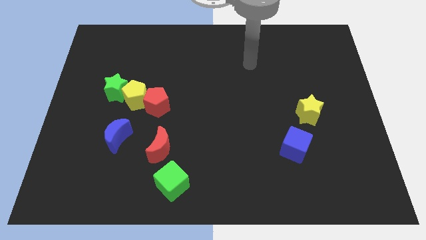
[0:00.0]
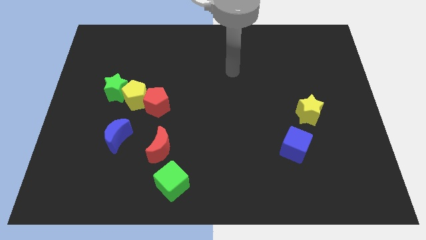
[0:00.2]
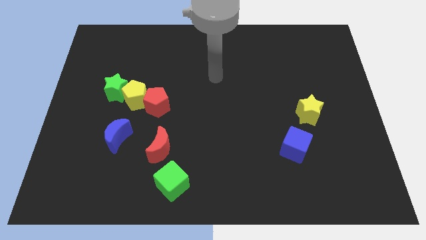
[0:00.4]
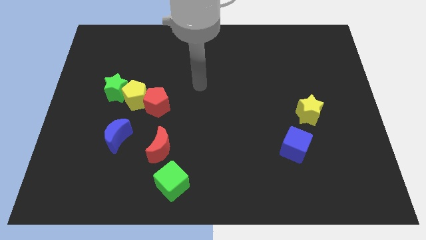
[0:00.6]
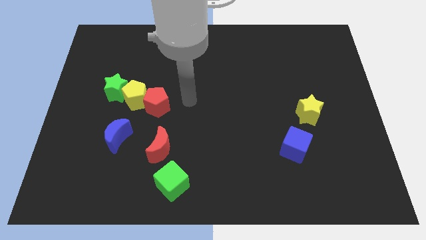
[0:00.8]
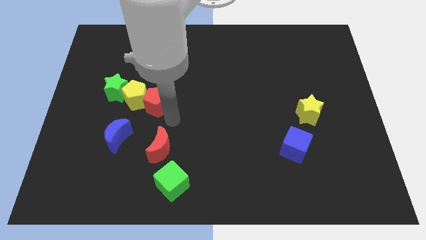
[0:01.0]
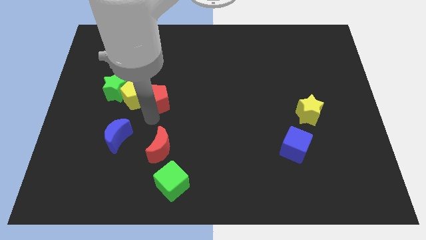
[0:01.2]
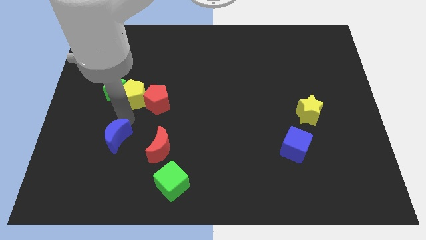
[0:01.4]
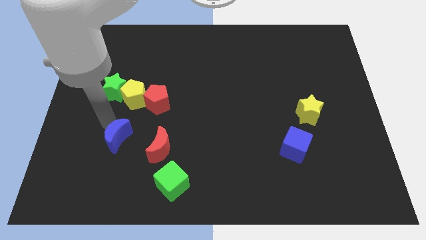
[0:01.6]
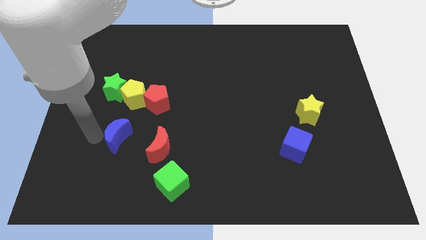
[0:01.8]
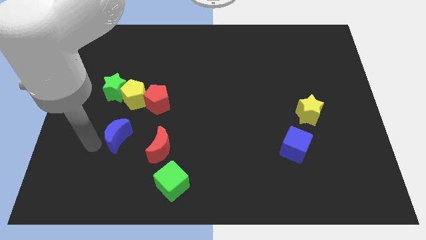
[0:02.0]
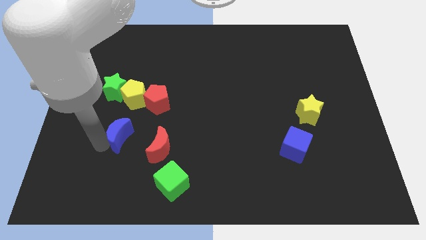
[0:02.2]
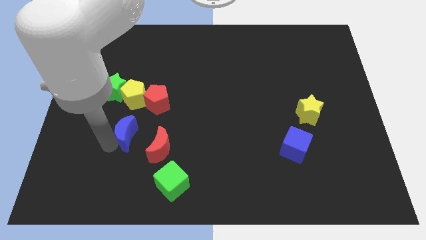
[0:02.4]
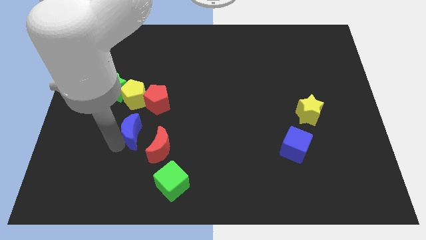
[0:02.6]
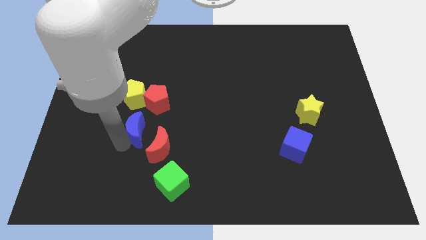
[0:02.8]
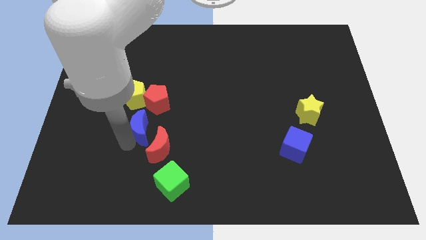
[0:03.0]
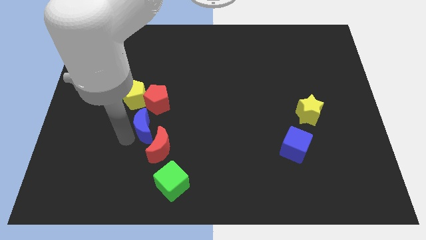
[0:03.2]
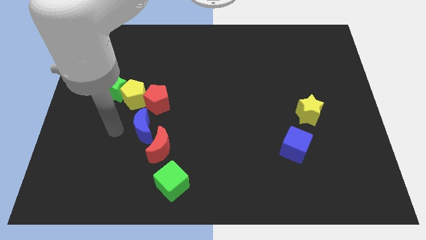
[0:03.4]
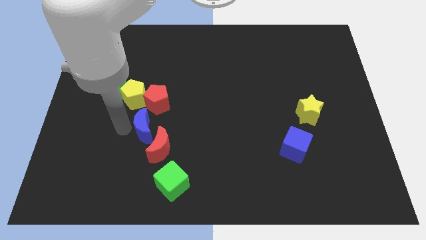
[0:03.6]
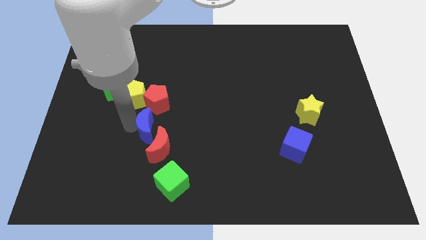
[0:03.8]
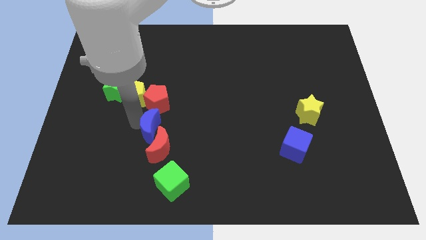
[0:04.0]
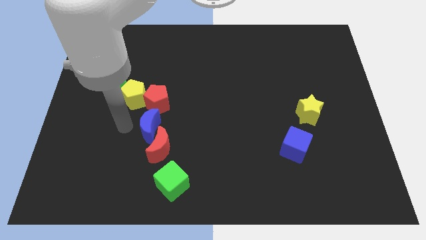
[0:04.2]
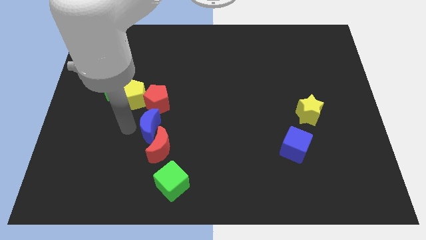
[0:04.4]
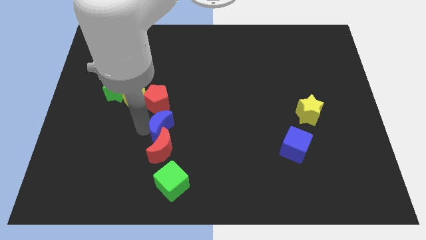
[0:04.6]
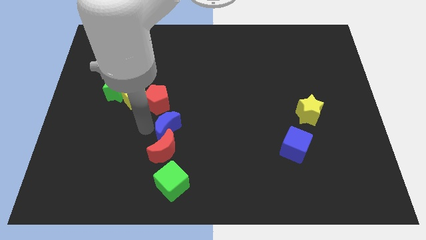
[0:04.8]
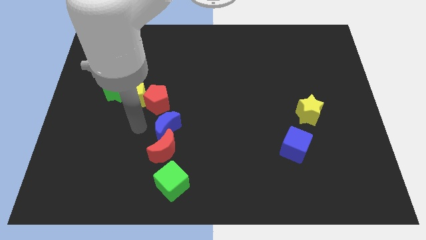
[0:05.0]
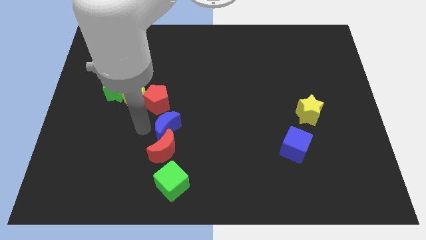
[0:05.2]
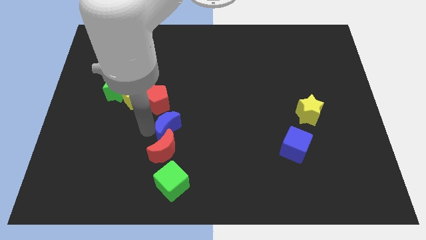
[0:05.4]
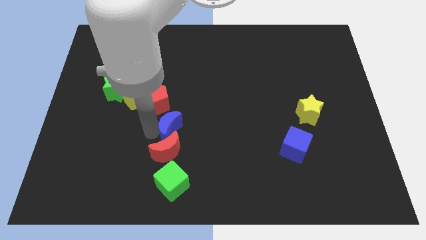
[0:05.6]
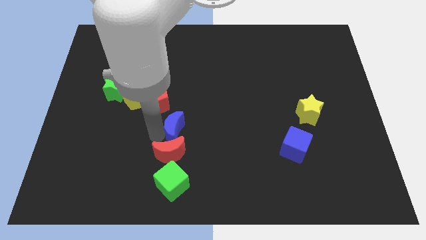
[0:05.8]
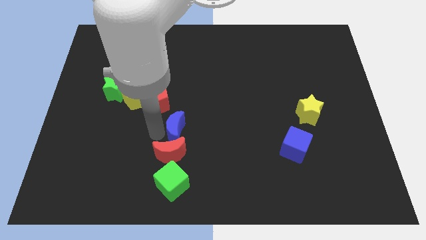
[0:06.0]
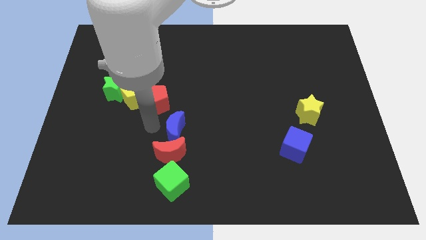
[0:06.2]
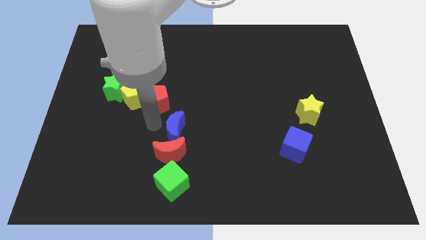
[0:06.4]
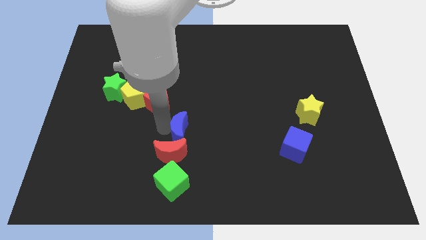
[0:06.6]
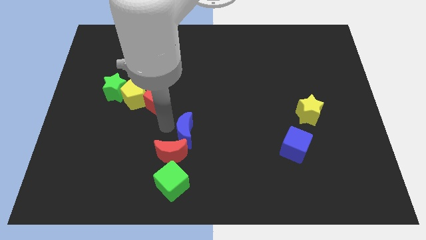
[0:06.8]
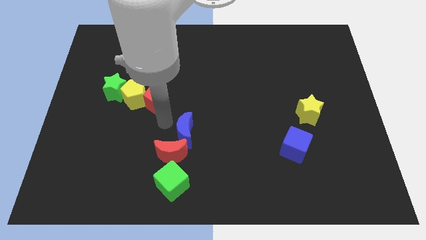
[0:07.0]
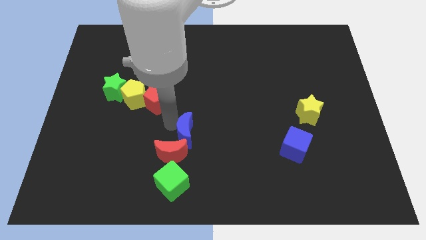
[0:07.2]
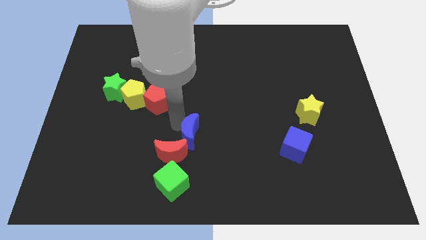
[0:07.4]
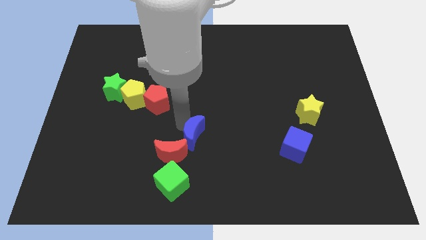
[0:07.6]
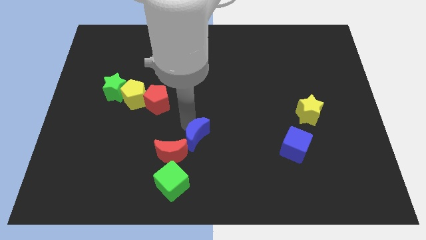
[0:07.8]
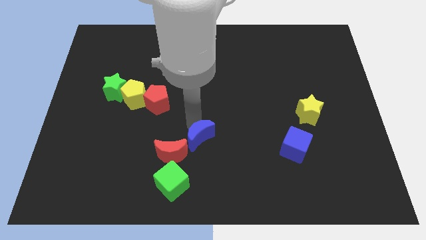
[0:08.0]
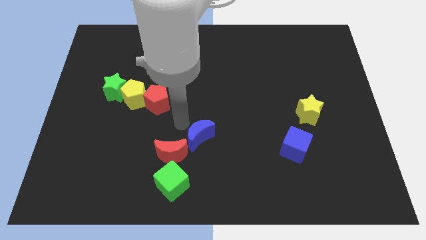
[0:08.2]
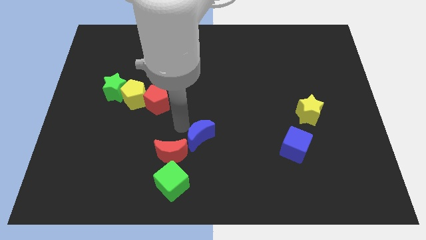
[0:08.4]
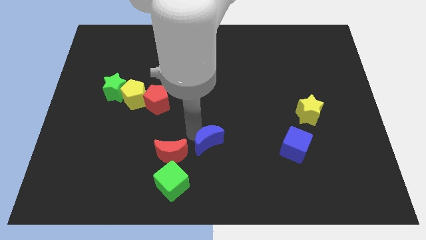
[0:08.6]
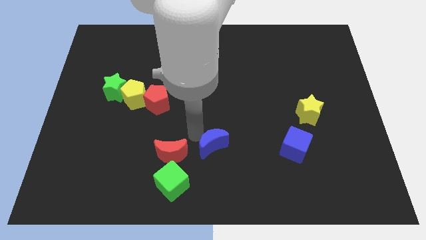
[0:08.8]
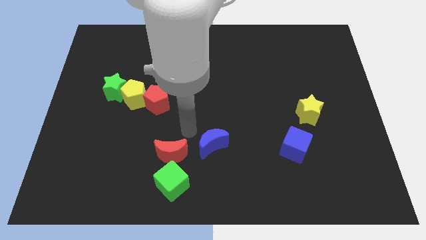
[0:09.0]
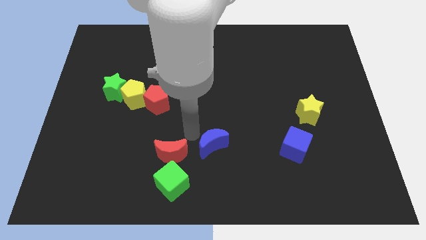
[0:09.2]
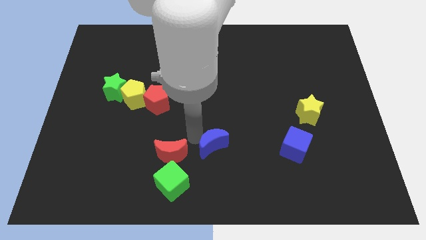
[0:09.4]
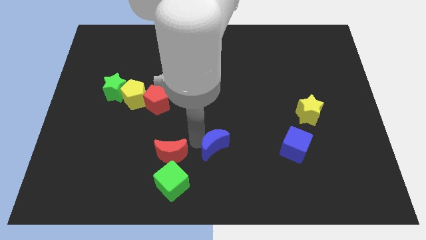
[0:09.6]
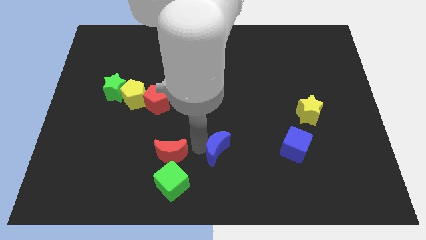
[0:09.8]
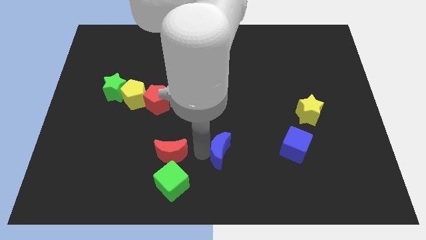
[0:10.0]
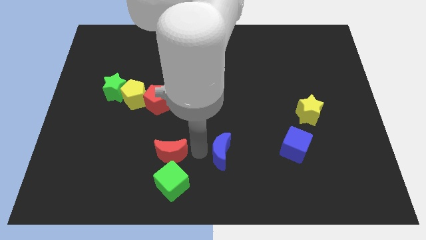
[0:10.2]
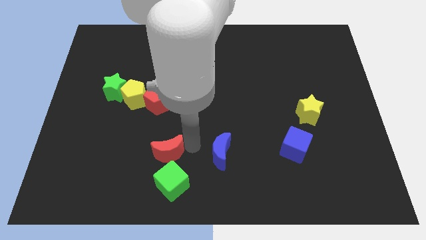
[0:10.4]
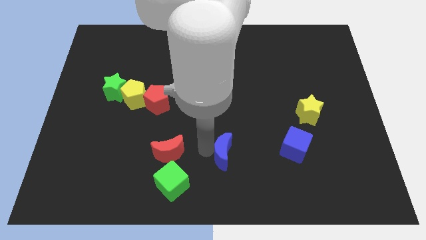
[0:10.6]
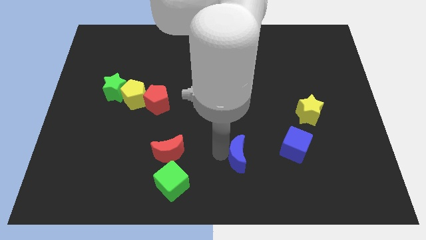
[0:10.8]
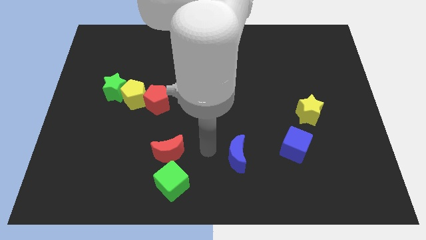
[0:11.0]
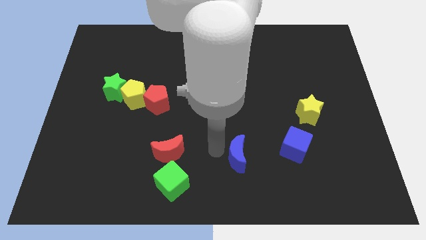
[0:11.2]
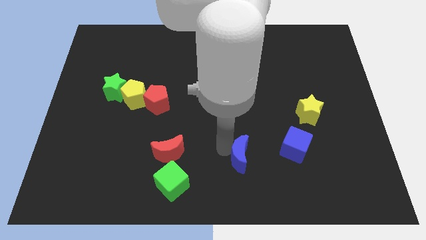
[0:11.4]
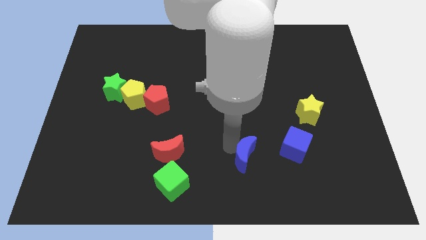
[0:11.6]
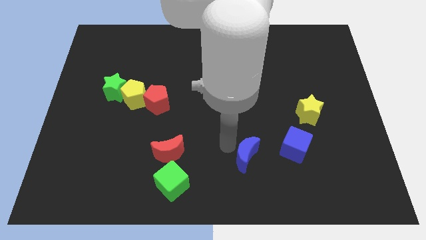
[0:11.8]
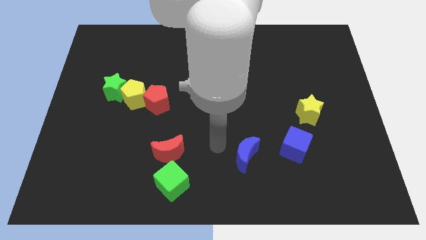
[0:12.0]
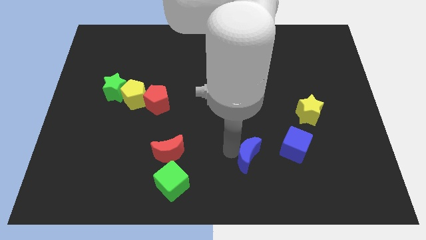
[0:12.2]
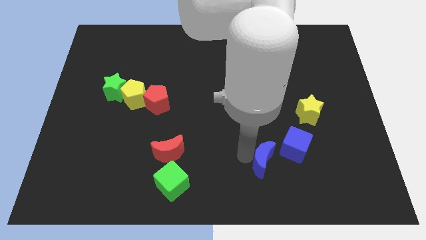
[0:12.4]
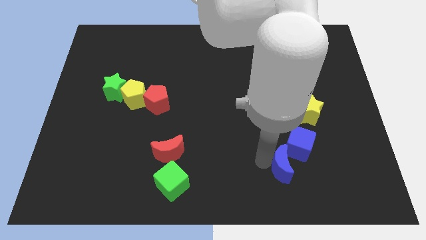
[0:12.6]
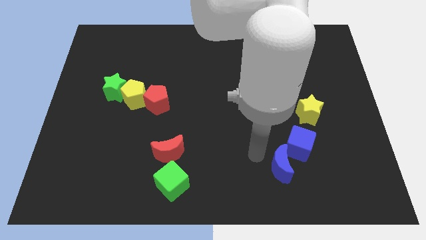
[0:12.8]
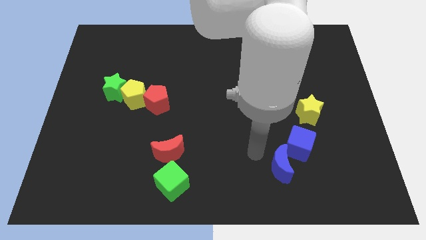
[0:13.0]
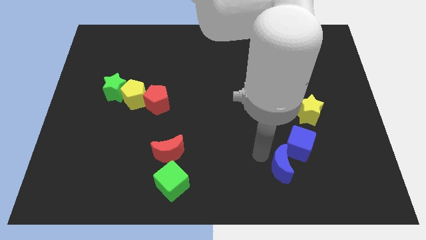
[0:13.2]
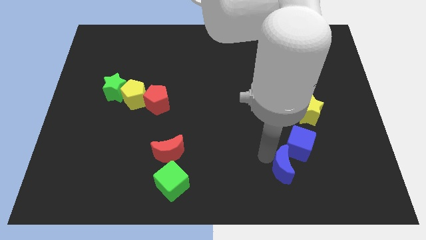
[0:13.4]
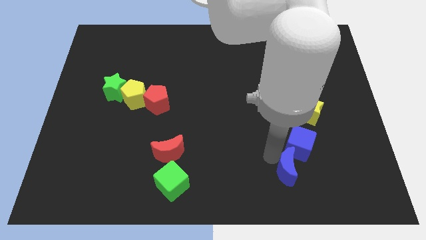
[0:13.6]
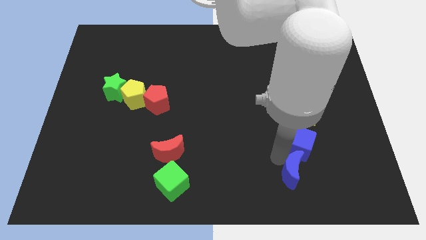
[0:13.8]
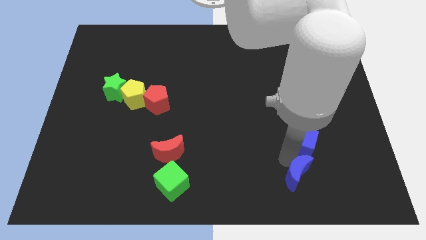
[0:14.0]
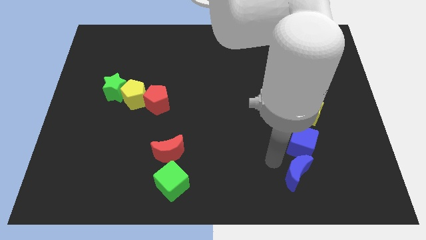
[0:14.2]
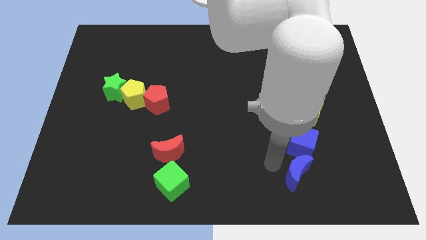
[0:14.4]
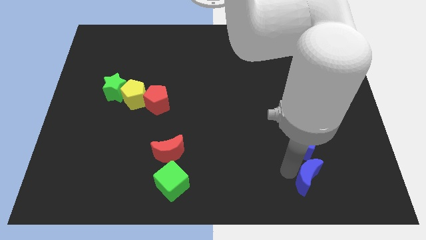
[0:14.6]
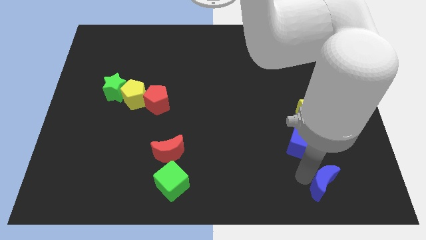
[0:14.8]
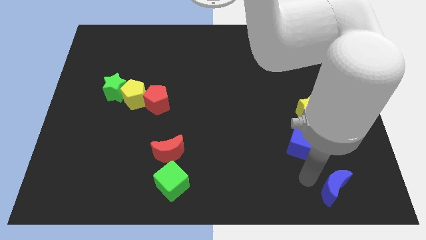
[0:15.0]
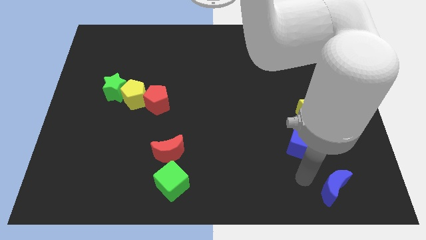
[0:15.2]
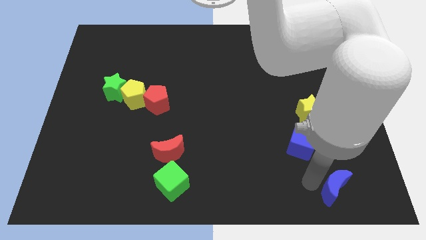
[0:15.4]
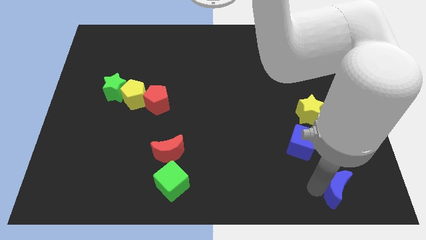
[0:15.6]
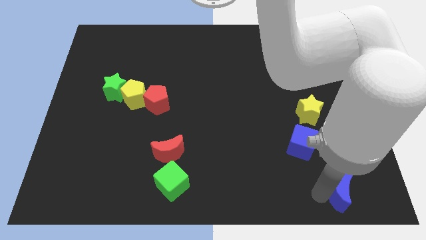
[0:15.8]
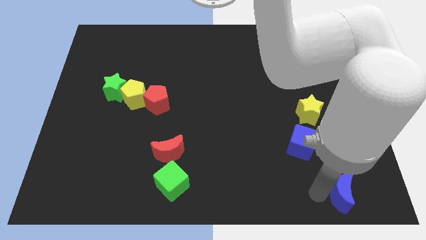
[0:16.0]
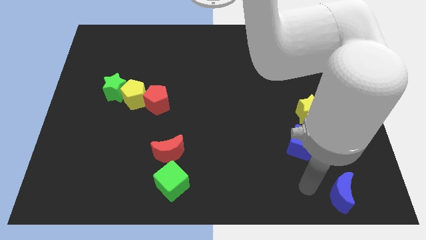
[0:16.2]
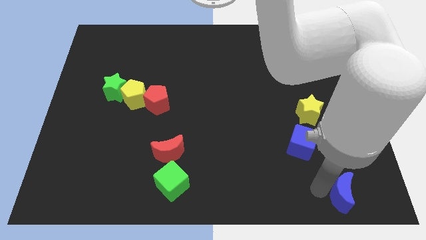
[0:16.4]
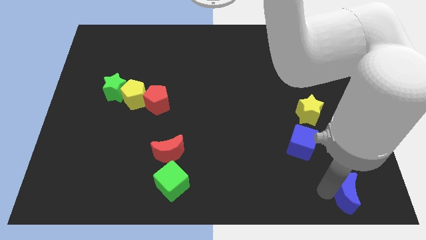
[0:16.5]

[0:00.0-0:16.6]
move the blue moon to the bottom right corner
